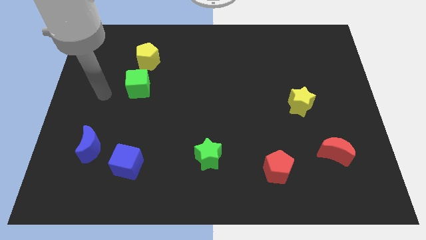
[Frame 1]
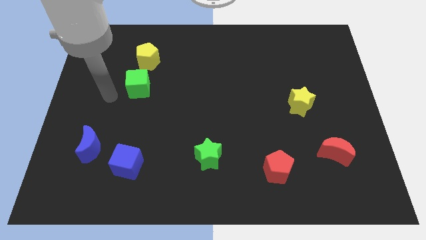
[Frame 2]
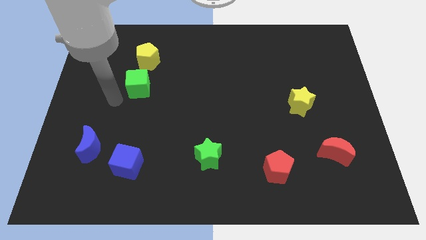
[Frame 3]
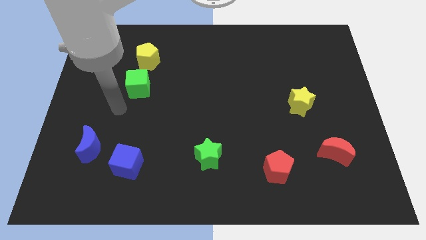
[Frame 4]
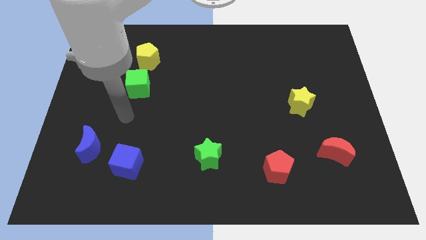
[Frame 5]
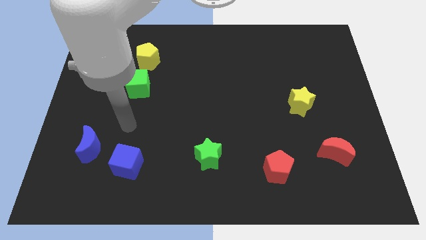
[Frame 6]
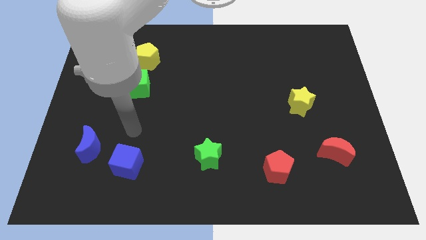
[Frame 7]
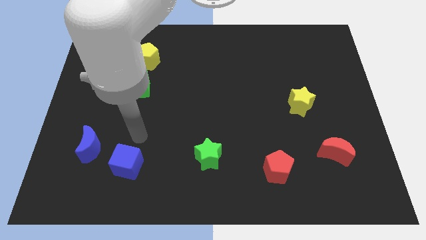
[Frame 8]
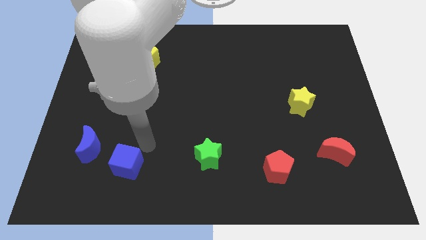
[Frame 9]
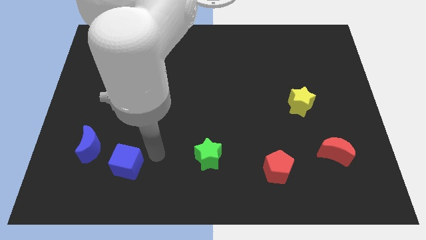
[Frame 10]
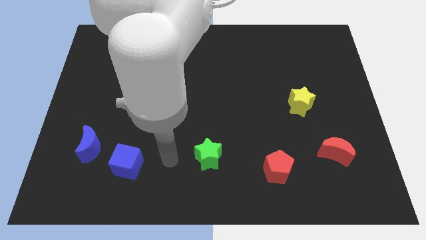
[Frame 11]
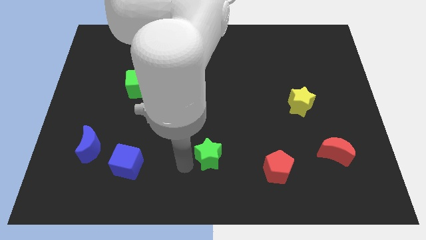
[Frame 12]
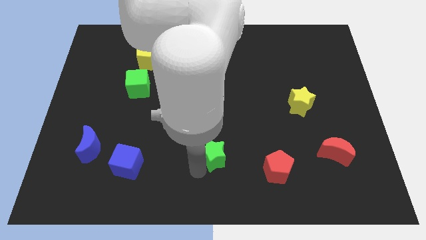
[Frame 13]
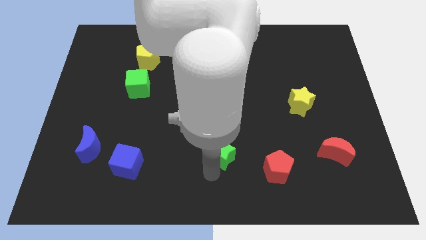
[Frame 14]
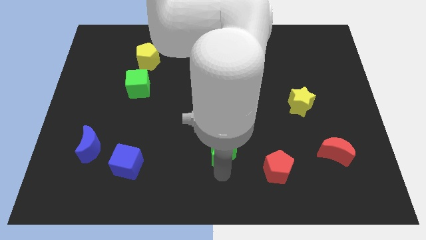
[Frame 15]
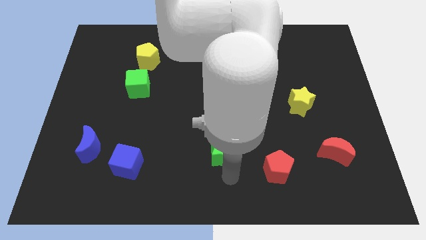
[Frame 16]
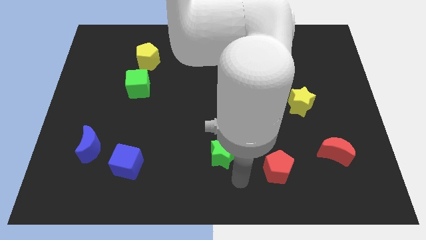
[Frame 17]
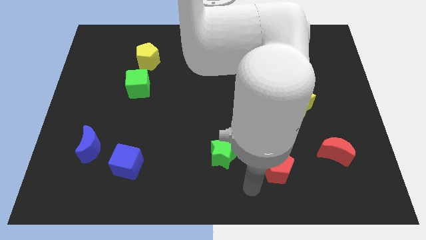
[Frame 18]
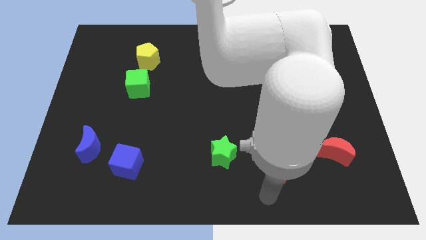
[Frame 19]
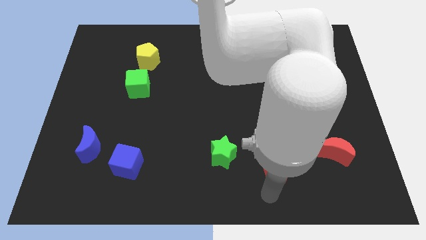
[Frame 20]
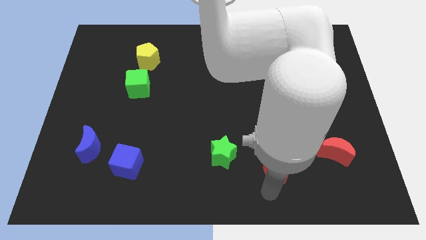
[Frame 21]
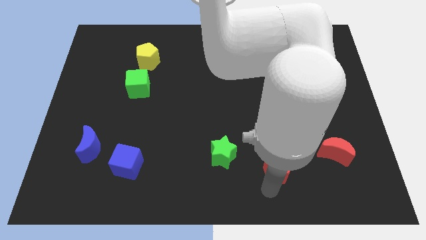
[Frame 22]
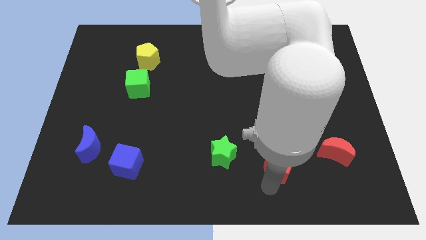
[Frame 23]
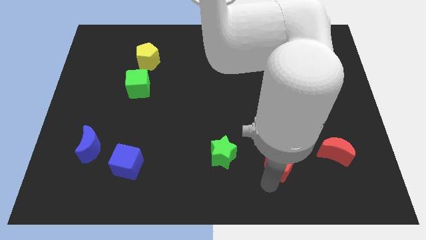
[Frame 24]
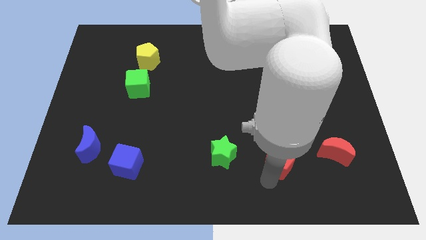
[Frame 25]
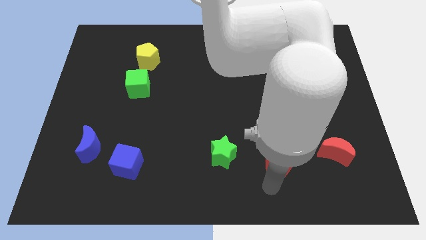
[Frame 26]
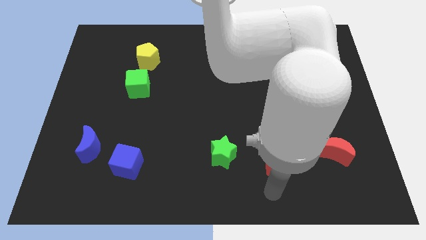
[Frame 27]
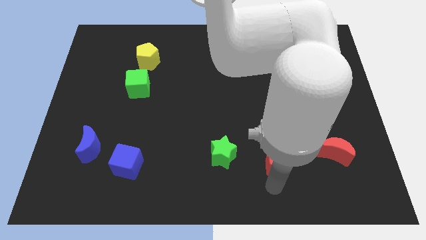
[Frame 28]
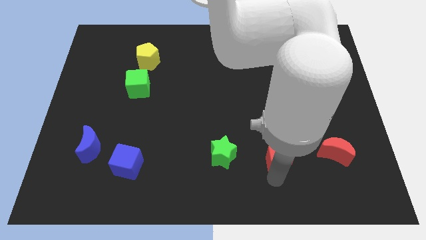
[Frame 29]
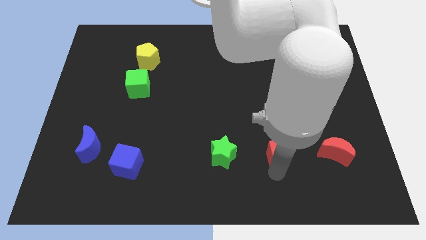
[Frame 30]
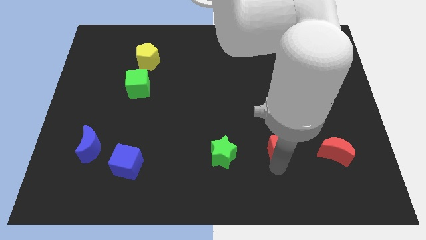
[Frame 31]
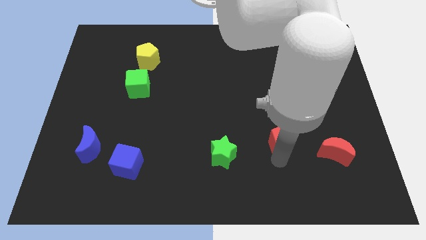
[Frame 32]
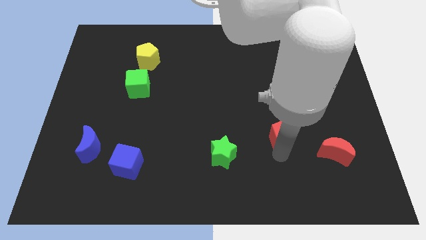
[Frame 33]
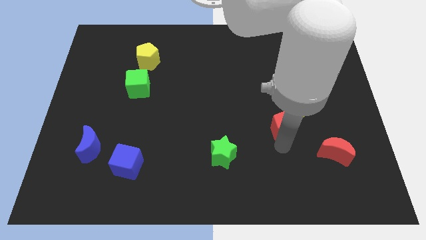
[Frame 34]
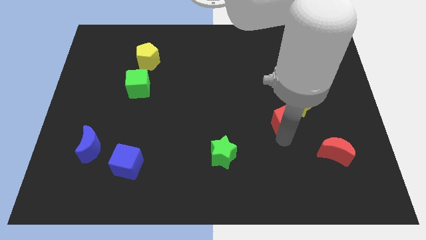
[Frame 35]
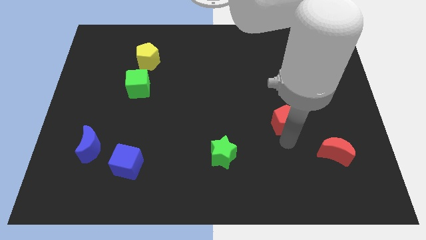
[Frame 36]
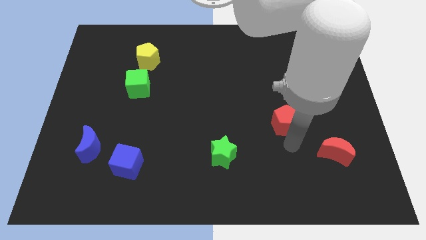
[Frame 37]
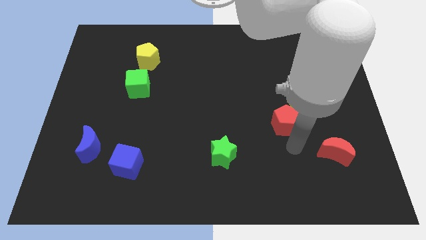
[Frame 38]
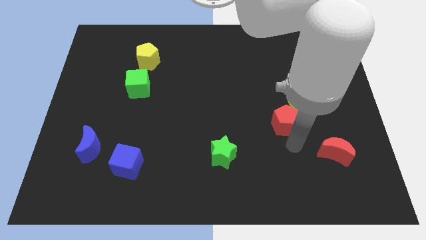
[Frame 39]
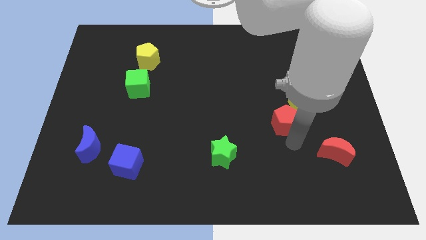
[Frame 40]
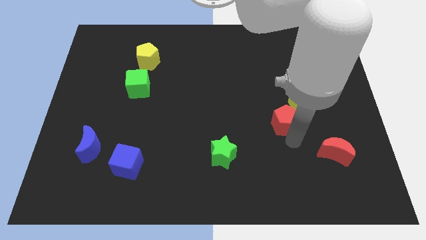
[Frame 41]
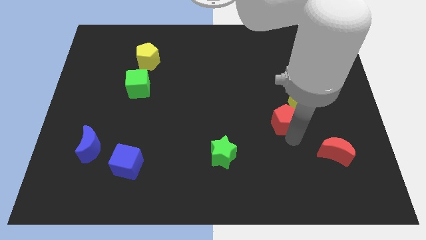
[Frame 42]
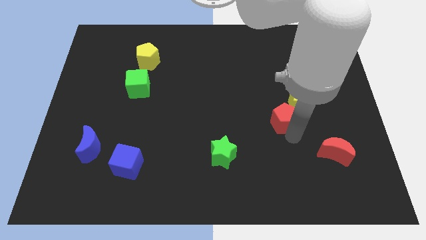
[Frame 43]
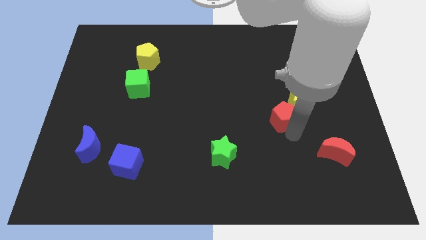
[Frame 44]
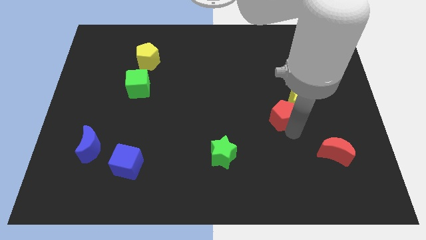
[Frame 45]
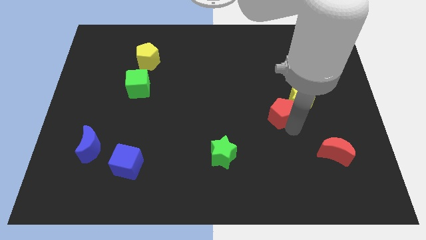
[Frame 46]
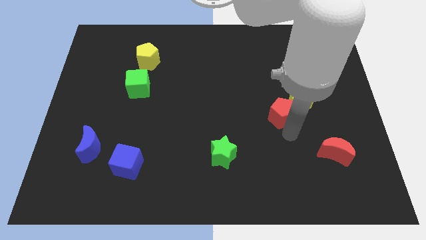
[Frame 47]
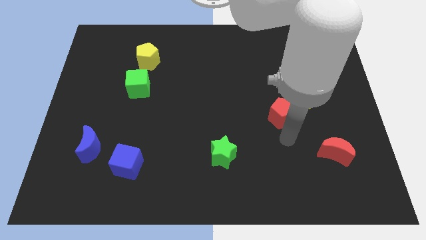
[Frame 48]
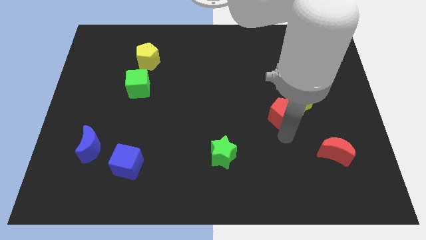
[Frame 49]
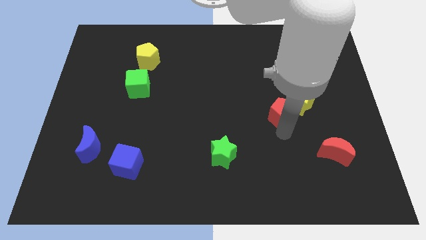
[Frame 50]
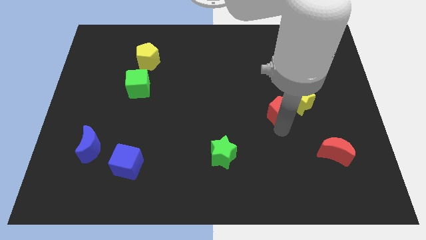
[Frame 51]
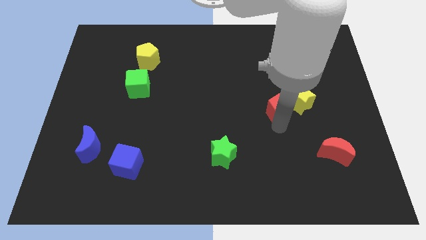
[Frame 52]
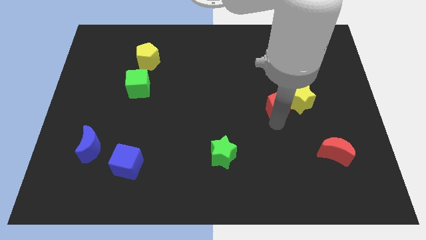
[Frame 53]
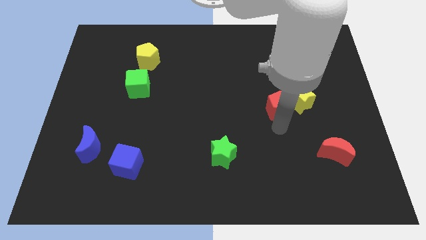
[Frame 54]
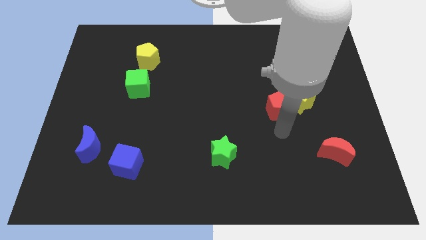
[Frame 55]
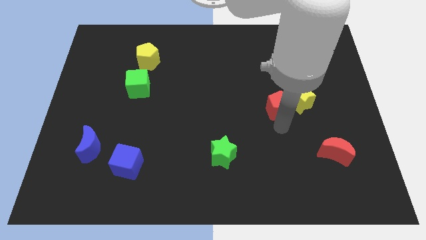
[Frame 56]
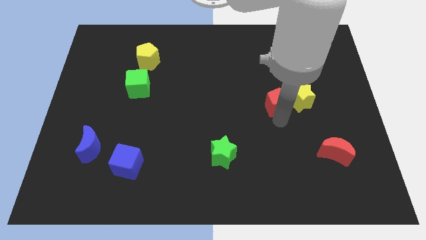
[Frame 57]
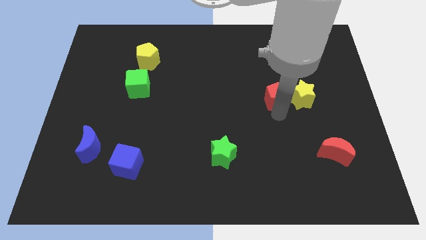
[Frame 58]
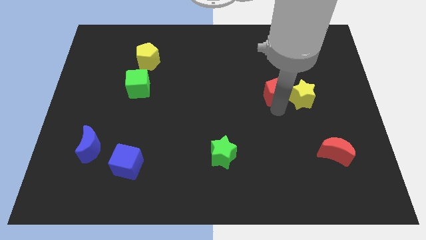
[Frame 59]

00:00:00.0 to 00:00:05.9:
slide the red pentagon up

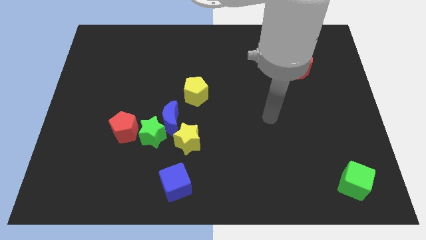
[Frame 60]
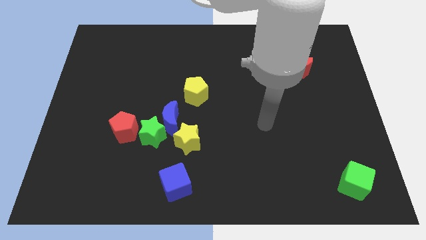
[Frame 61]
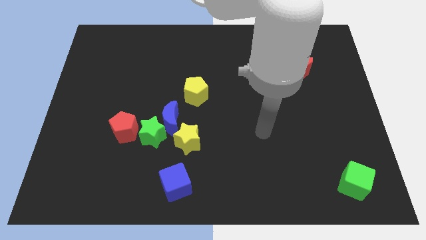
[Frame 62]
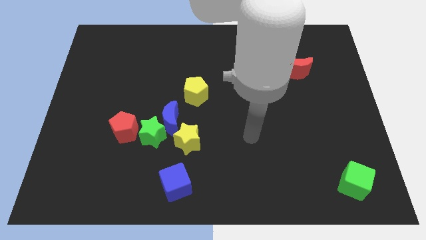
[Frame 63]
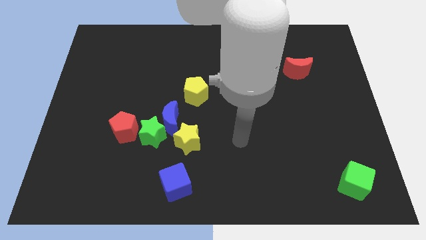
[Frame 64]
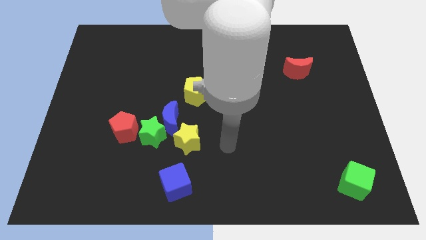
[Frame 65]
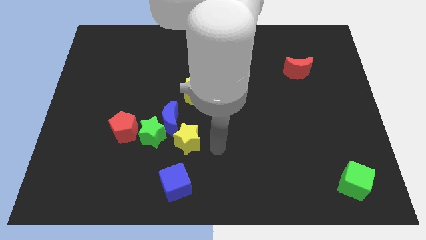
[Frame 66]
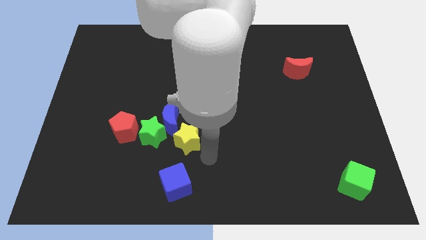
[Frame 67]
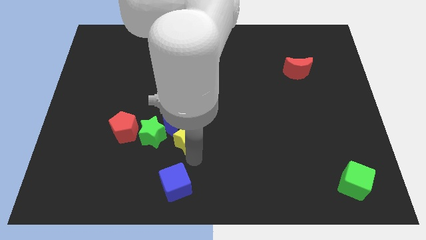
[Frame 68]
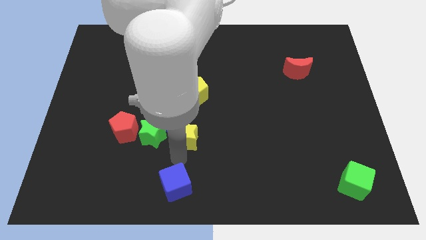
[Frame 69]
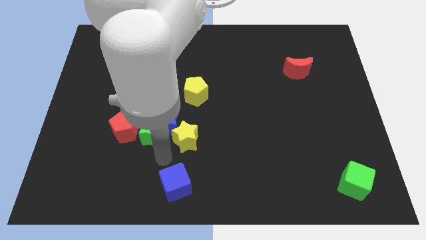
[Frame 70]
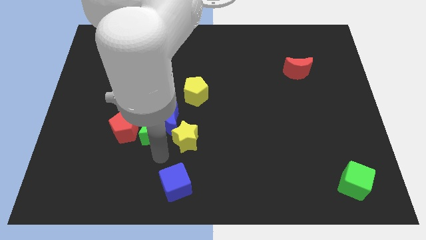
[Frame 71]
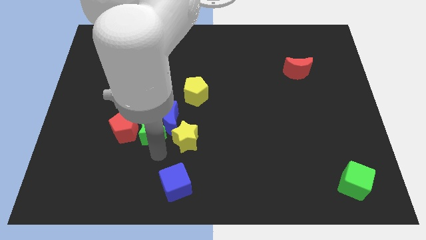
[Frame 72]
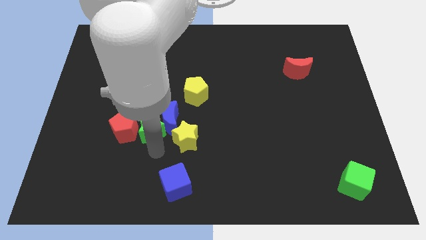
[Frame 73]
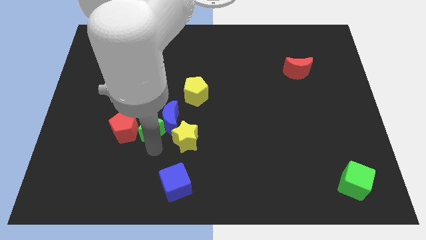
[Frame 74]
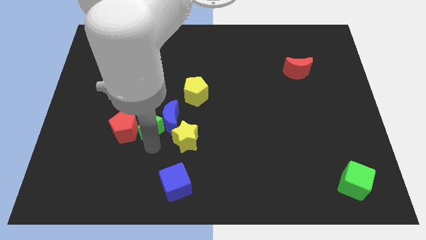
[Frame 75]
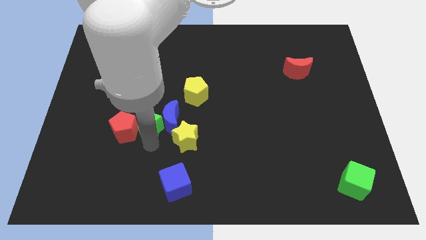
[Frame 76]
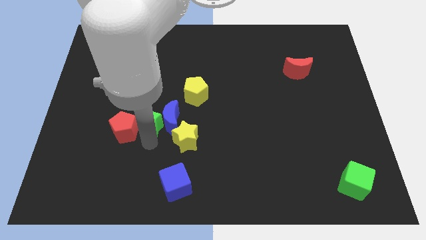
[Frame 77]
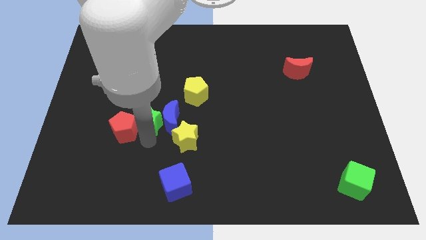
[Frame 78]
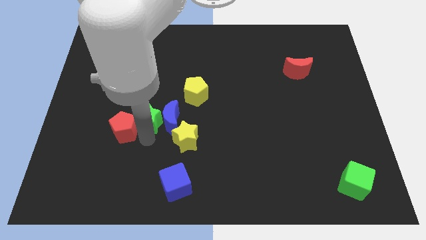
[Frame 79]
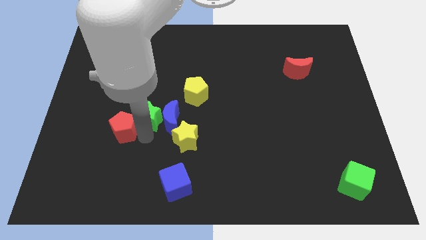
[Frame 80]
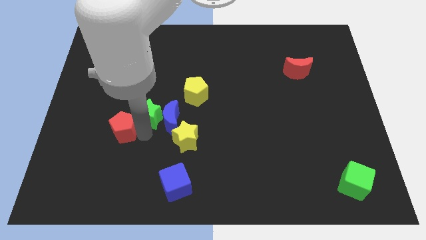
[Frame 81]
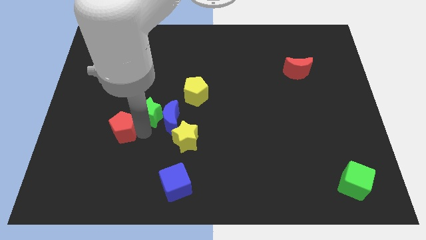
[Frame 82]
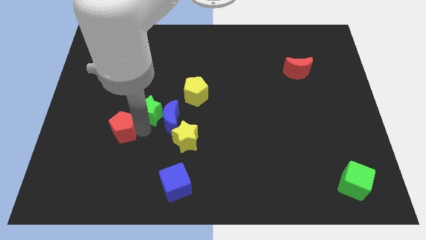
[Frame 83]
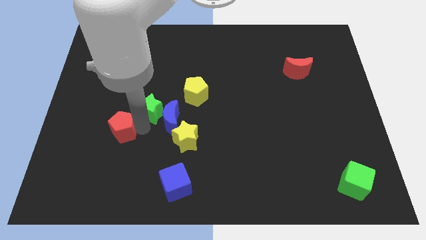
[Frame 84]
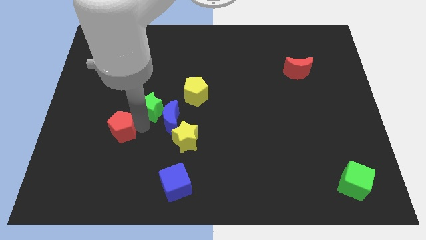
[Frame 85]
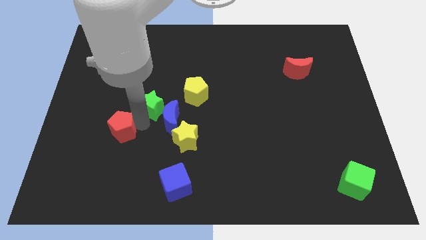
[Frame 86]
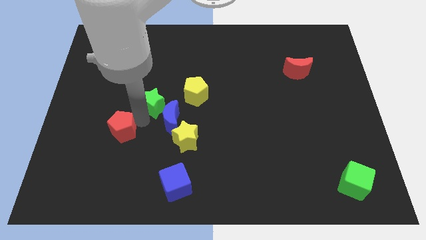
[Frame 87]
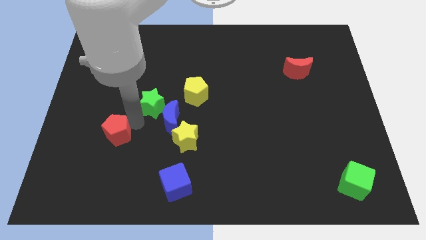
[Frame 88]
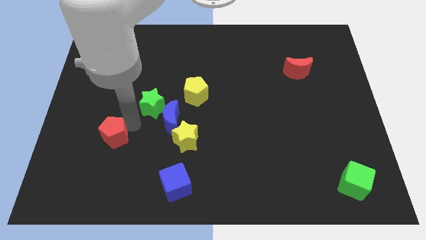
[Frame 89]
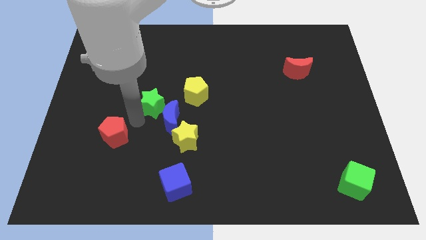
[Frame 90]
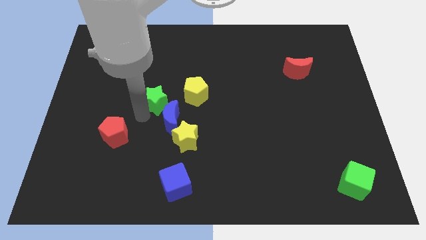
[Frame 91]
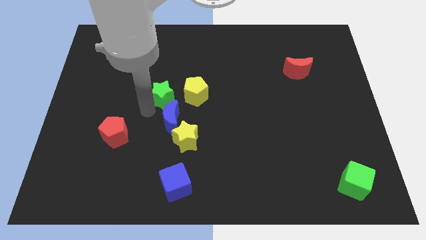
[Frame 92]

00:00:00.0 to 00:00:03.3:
push the green star slightly upwards and right diagonally
